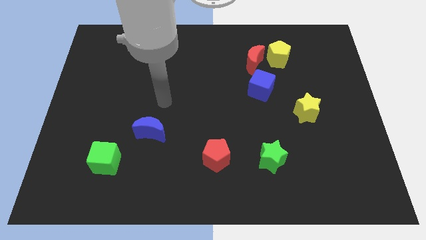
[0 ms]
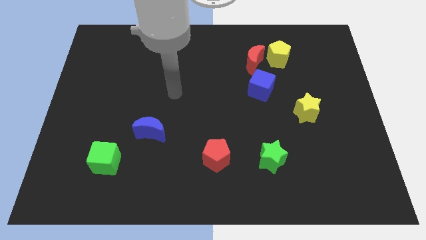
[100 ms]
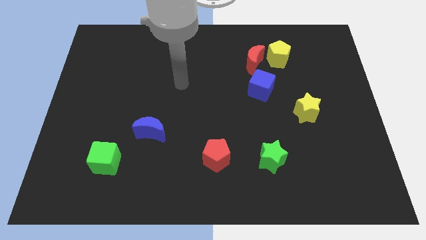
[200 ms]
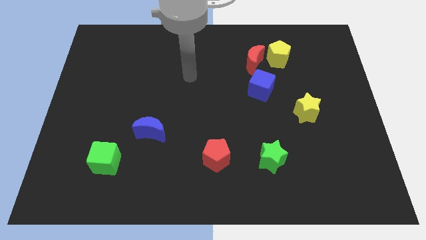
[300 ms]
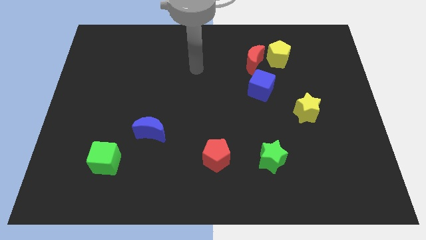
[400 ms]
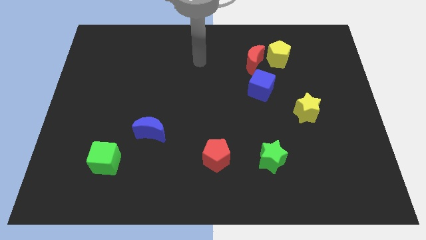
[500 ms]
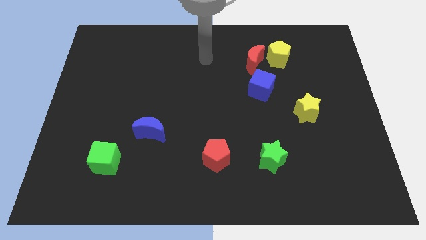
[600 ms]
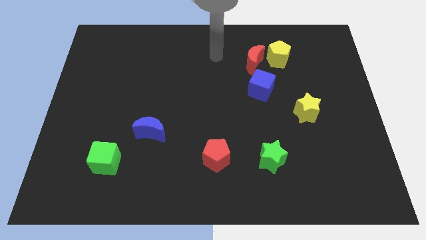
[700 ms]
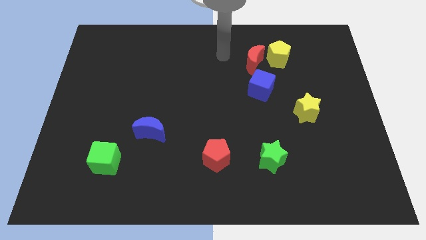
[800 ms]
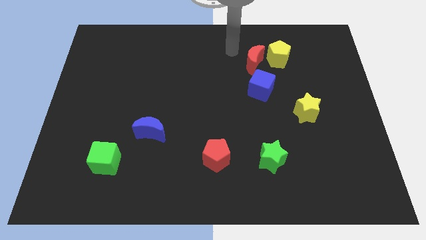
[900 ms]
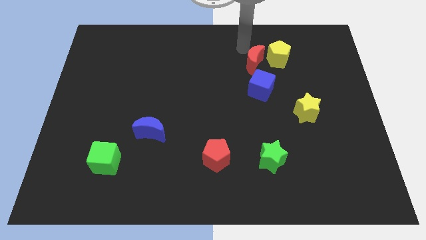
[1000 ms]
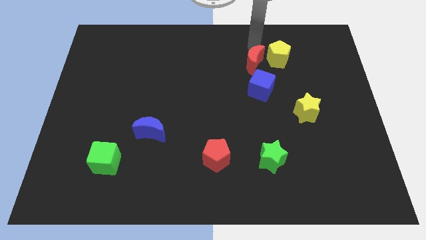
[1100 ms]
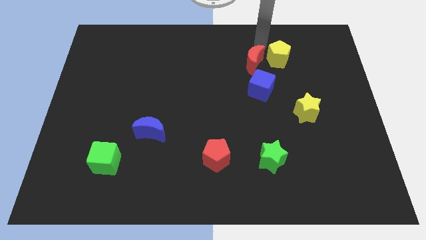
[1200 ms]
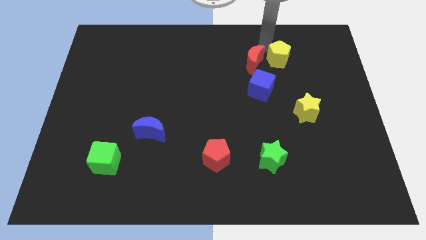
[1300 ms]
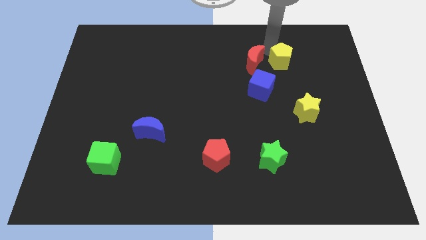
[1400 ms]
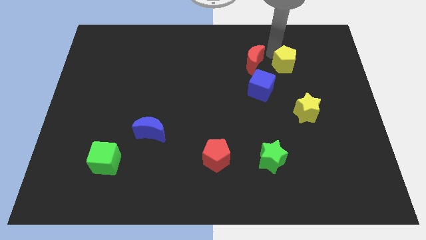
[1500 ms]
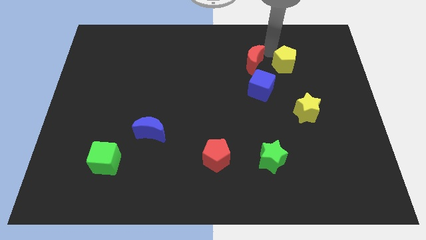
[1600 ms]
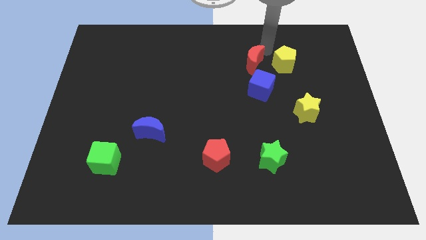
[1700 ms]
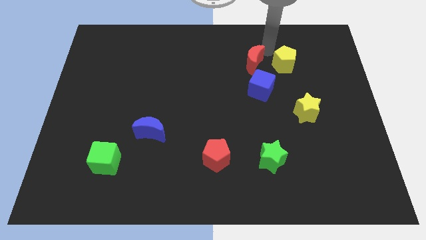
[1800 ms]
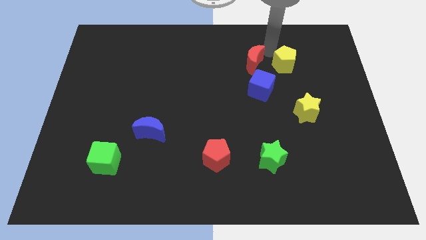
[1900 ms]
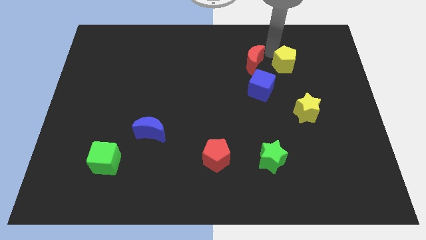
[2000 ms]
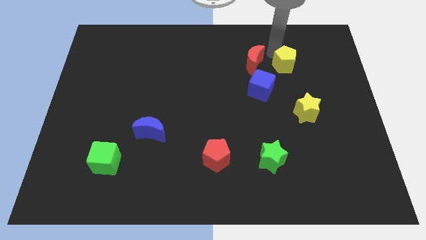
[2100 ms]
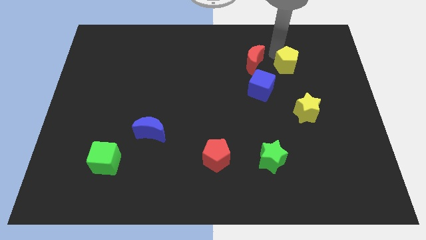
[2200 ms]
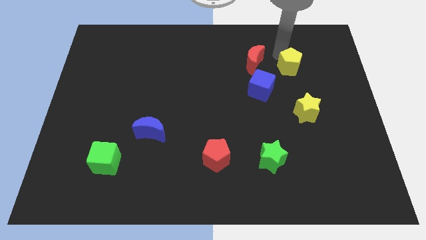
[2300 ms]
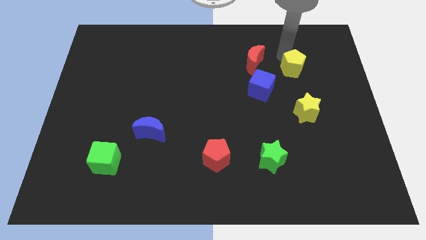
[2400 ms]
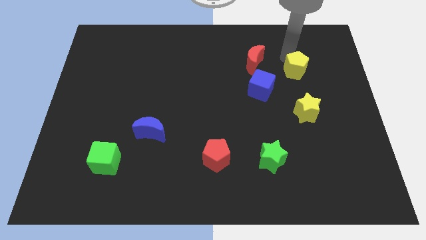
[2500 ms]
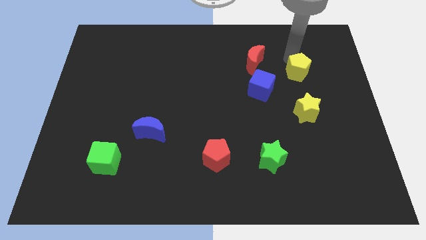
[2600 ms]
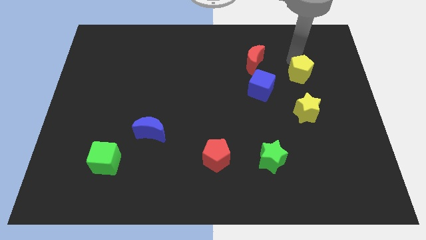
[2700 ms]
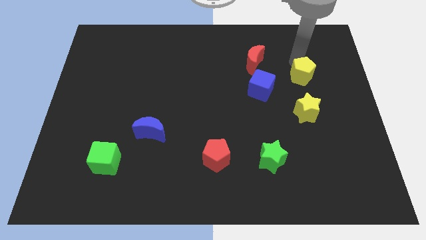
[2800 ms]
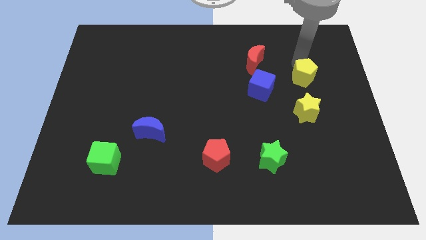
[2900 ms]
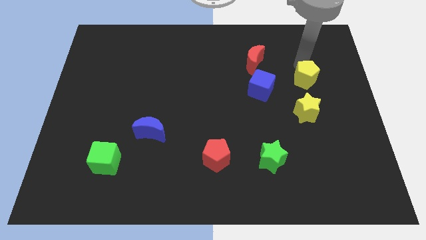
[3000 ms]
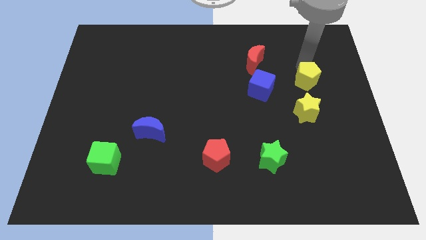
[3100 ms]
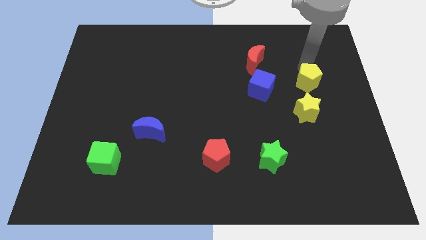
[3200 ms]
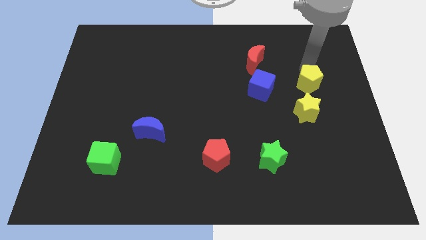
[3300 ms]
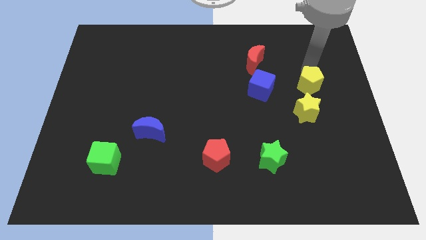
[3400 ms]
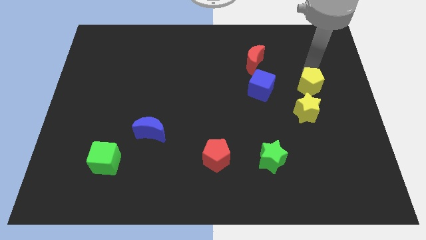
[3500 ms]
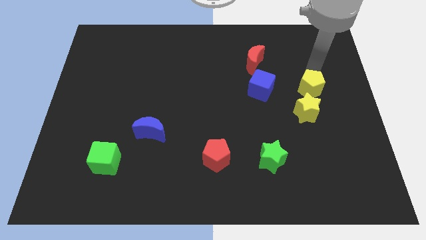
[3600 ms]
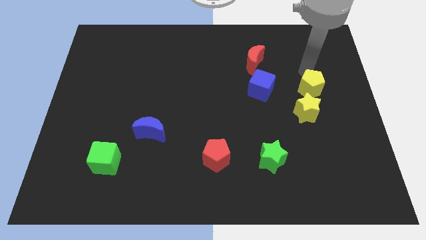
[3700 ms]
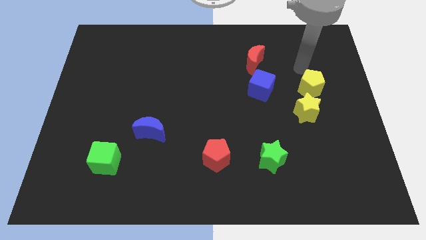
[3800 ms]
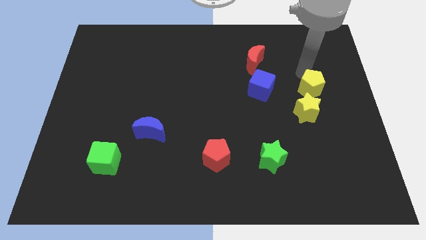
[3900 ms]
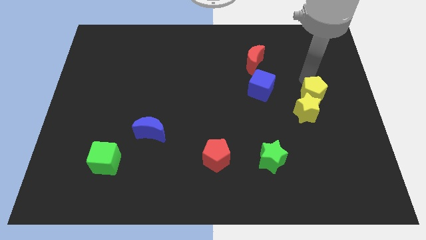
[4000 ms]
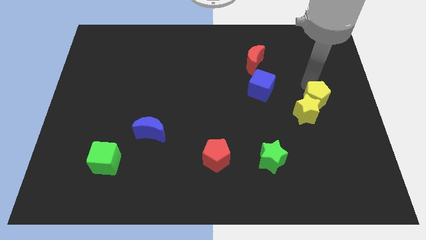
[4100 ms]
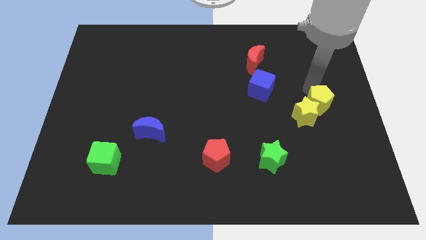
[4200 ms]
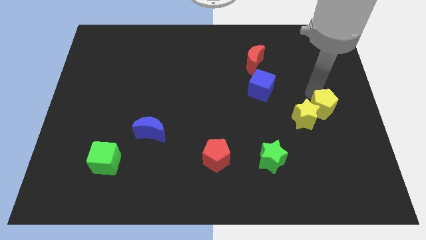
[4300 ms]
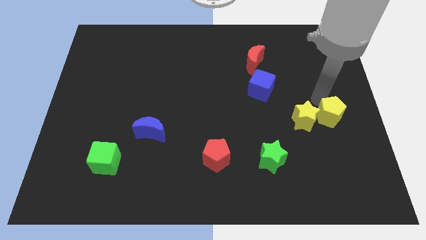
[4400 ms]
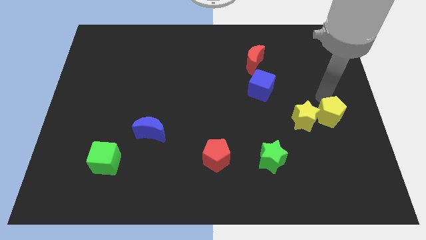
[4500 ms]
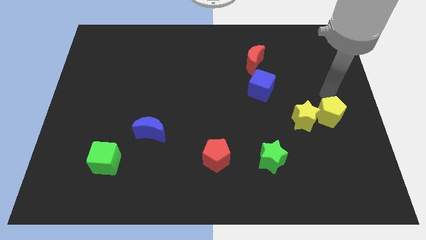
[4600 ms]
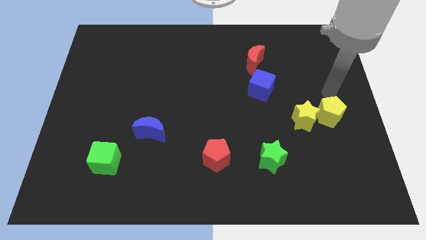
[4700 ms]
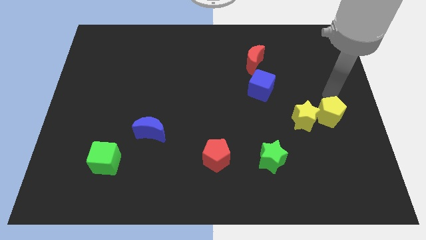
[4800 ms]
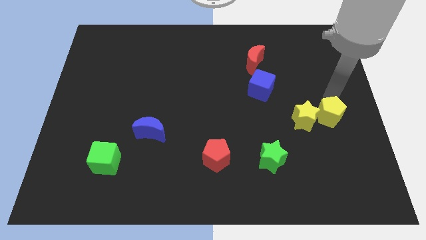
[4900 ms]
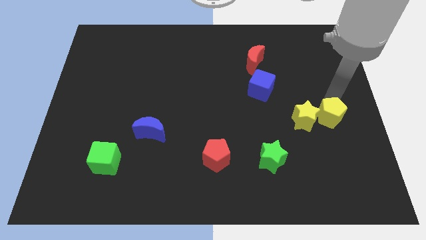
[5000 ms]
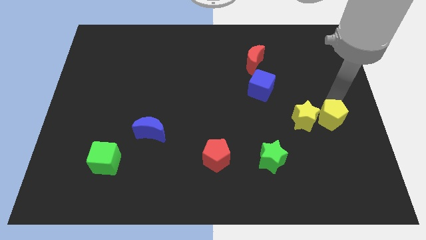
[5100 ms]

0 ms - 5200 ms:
push the yellow pentagon to the bottom right side of the yellow star

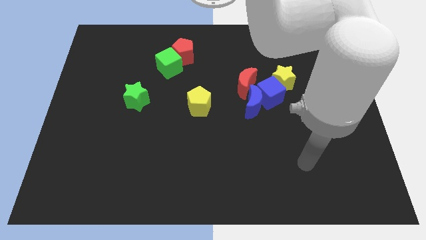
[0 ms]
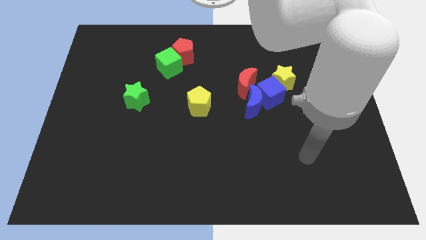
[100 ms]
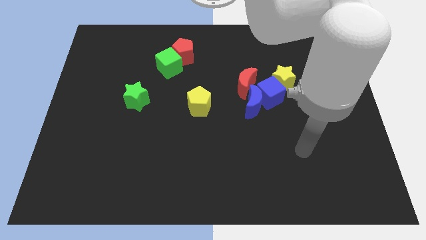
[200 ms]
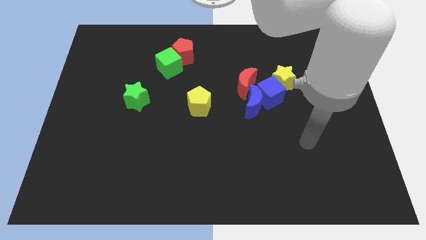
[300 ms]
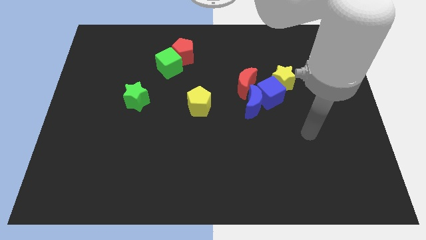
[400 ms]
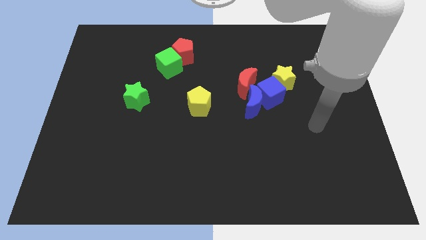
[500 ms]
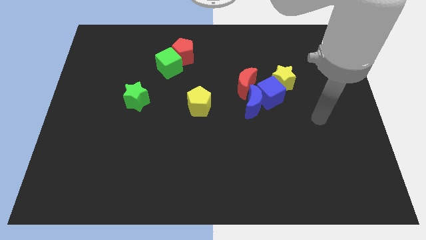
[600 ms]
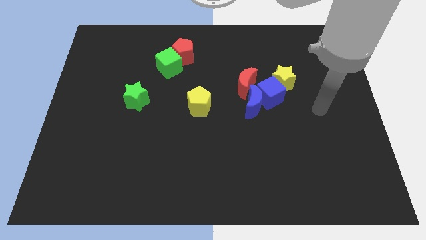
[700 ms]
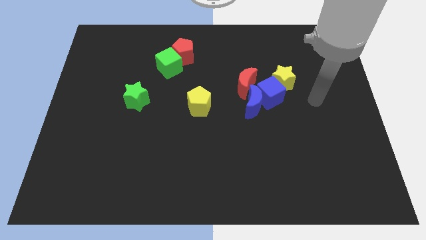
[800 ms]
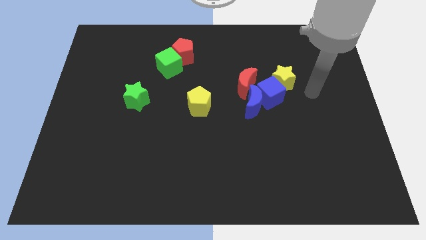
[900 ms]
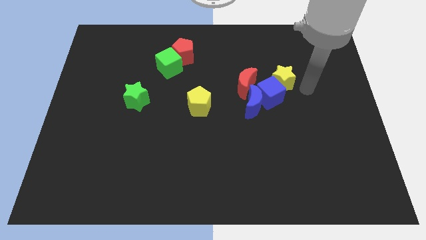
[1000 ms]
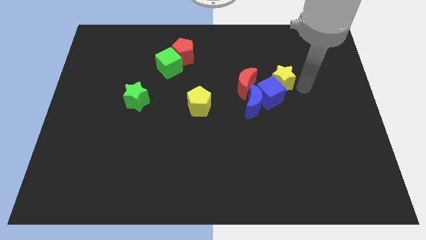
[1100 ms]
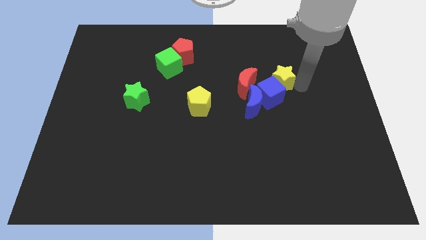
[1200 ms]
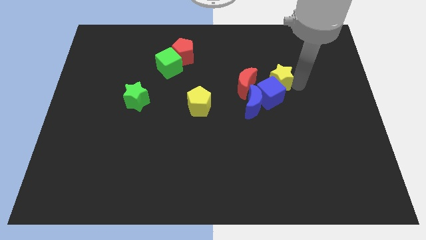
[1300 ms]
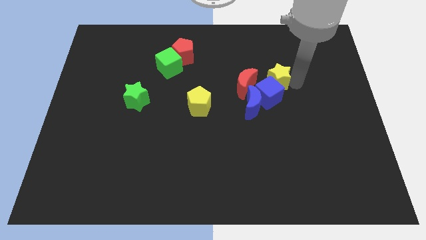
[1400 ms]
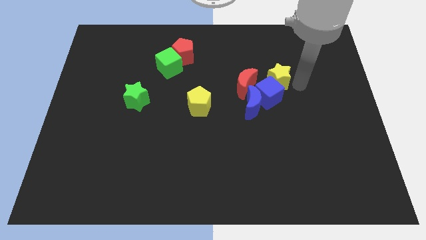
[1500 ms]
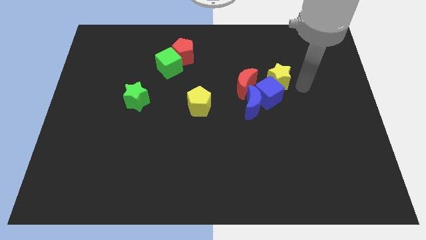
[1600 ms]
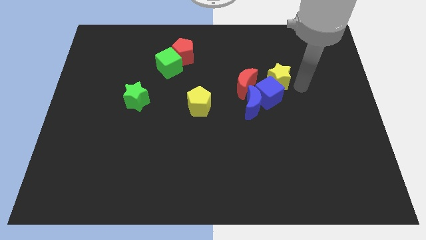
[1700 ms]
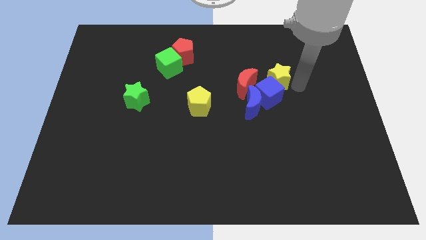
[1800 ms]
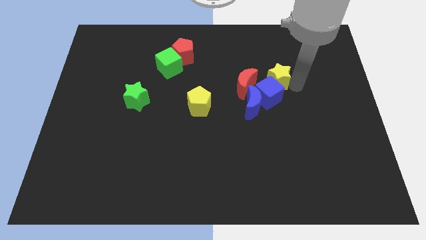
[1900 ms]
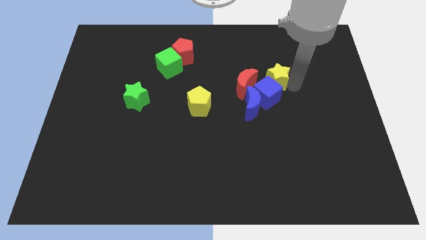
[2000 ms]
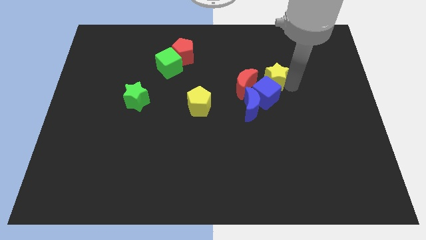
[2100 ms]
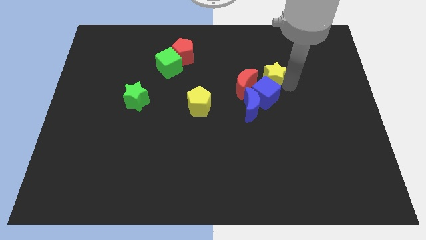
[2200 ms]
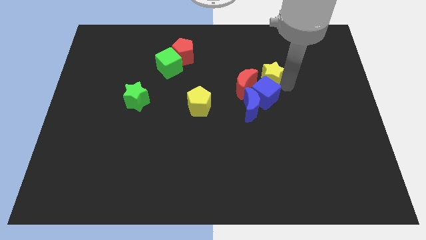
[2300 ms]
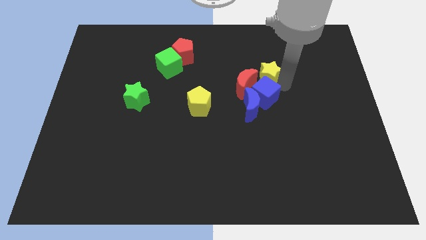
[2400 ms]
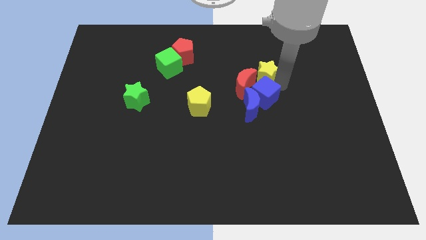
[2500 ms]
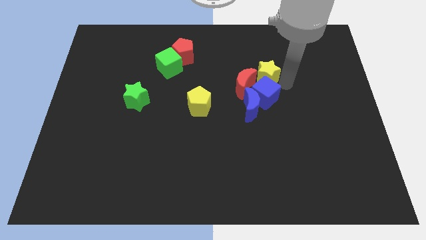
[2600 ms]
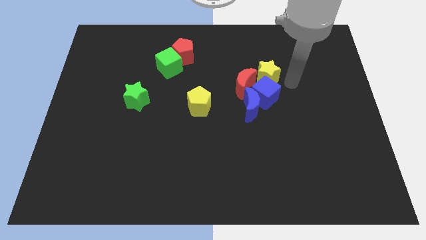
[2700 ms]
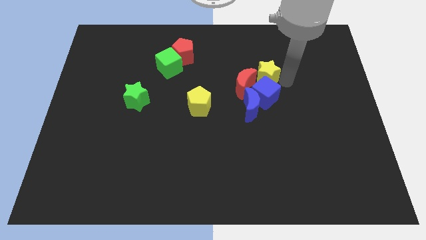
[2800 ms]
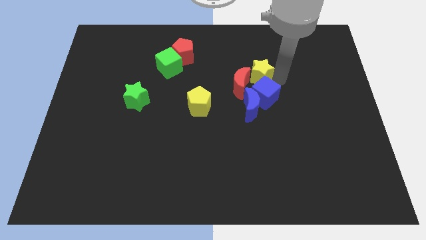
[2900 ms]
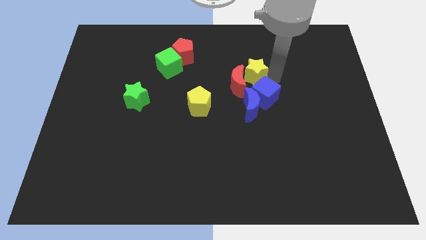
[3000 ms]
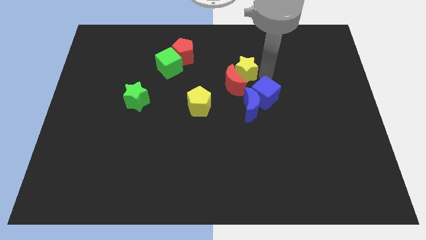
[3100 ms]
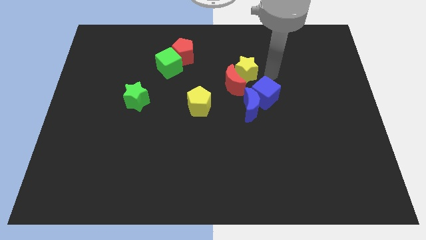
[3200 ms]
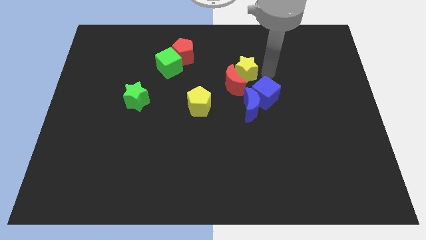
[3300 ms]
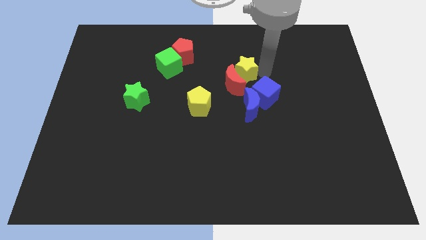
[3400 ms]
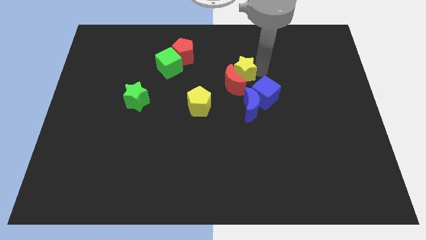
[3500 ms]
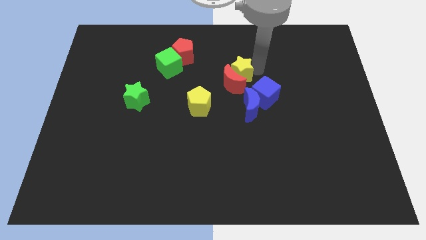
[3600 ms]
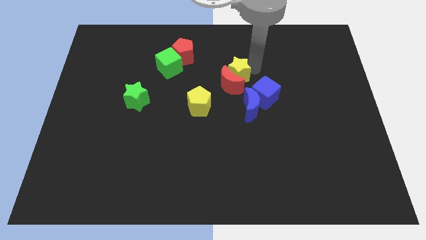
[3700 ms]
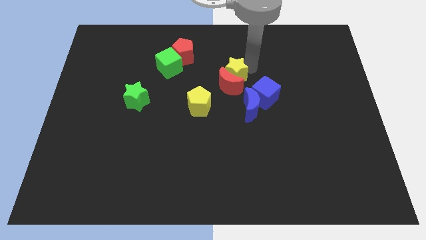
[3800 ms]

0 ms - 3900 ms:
slide the yellow star to the top left side of the red moon
